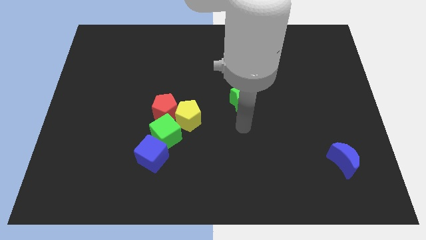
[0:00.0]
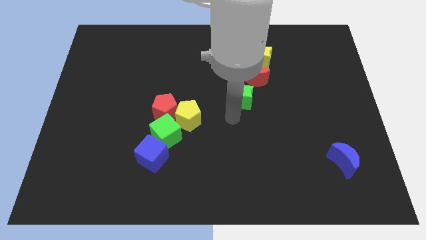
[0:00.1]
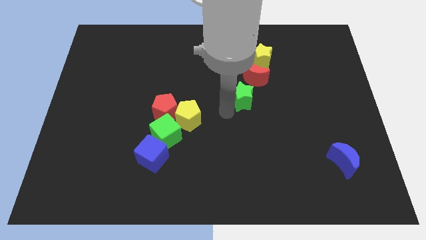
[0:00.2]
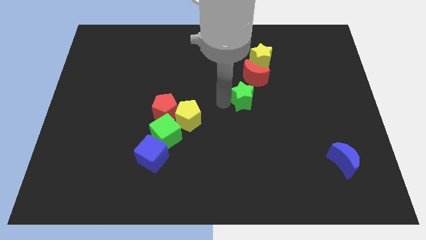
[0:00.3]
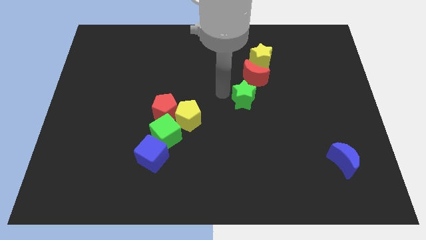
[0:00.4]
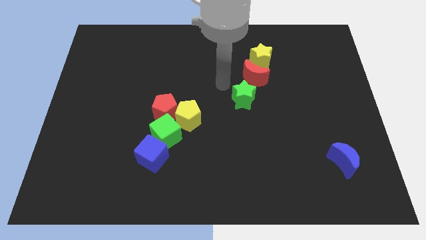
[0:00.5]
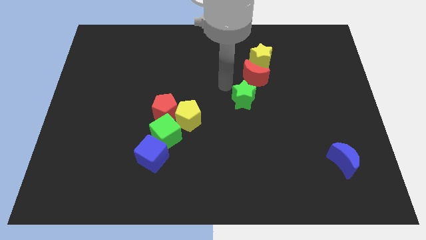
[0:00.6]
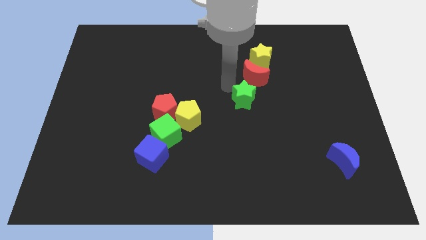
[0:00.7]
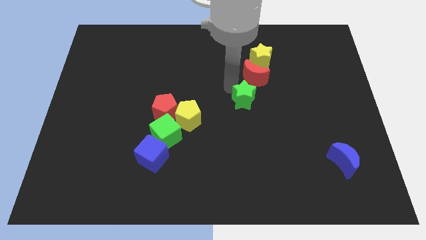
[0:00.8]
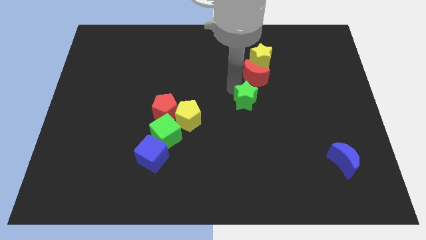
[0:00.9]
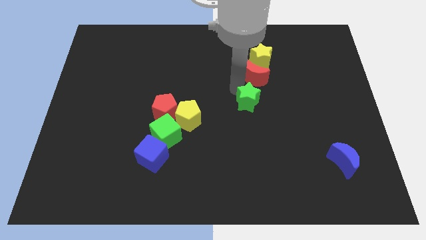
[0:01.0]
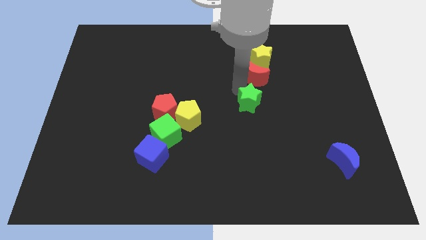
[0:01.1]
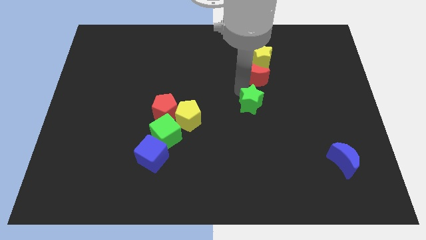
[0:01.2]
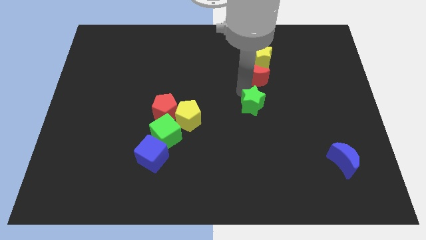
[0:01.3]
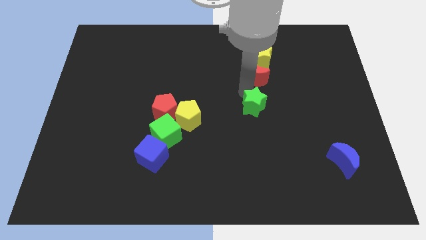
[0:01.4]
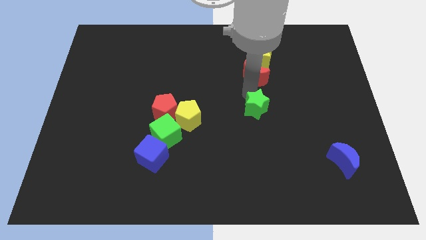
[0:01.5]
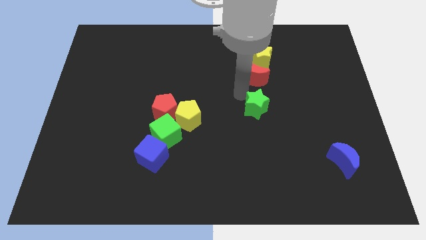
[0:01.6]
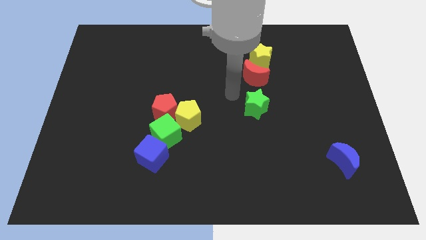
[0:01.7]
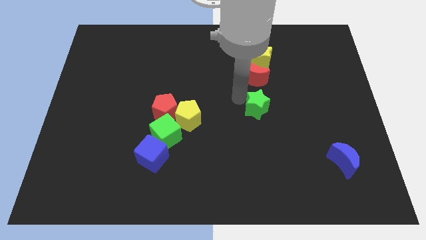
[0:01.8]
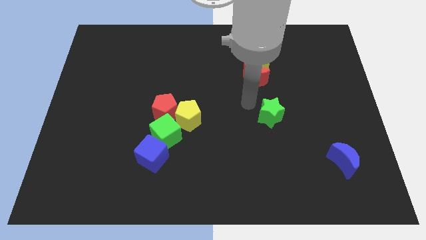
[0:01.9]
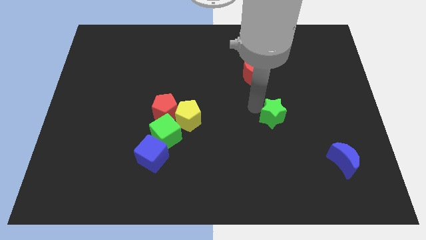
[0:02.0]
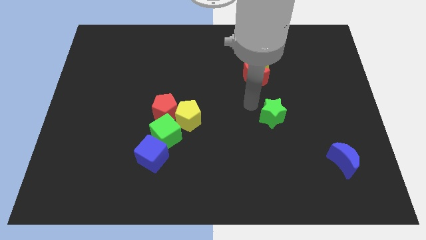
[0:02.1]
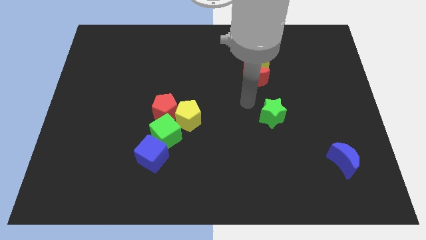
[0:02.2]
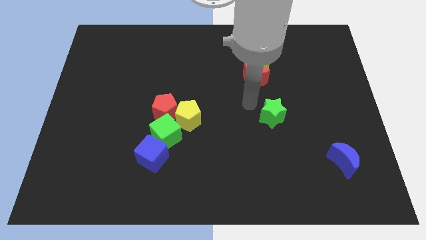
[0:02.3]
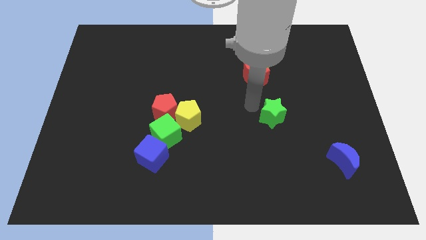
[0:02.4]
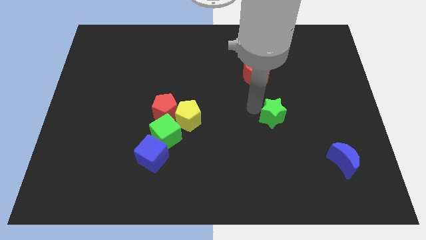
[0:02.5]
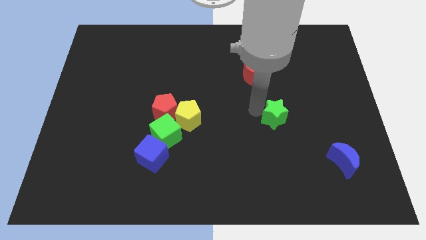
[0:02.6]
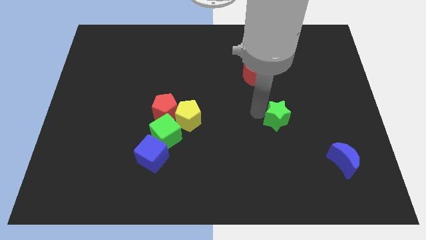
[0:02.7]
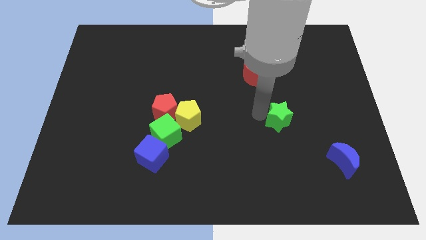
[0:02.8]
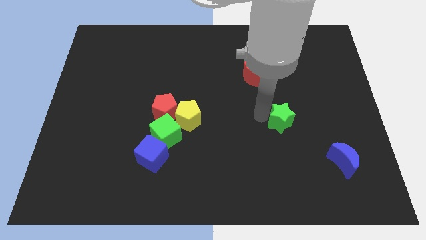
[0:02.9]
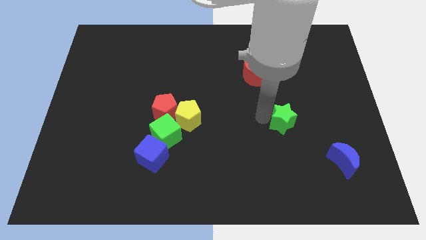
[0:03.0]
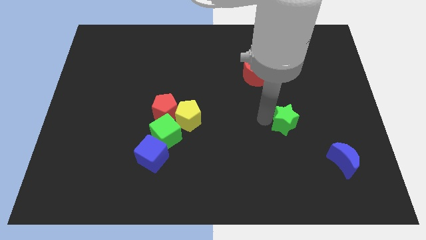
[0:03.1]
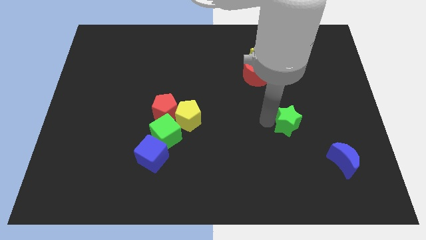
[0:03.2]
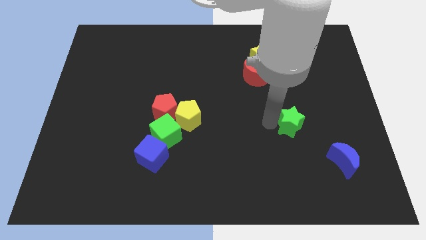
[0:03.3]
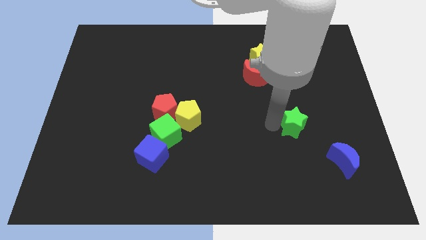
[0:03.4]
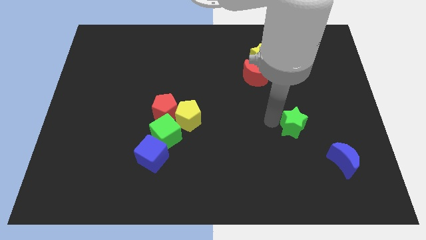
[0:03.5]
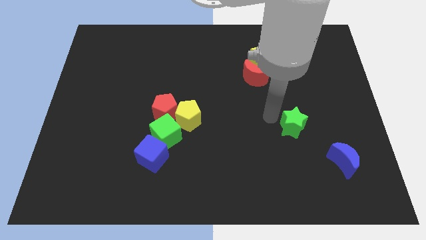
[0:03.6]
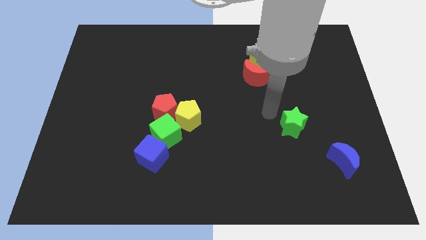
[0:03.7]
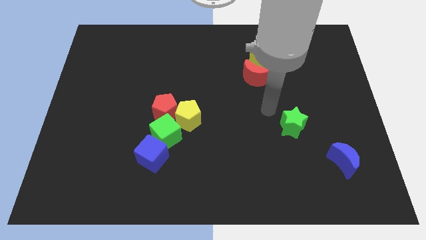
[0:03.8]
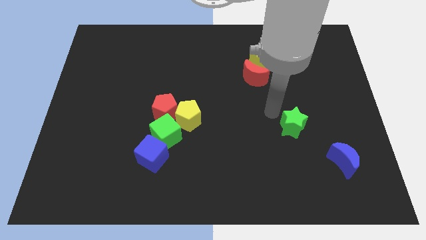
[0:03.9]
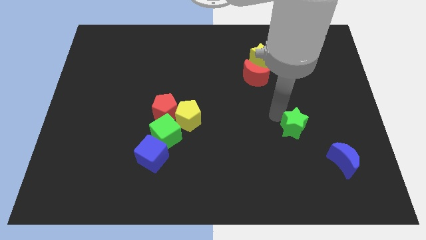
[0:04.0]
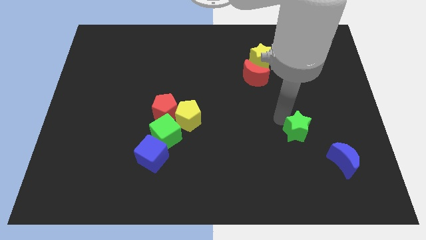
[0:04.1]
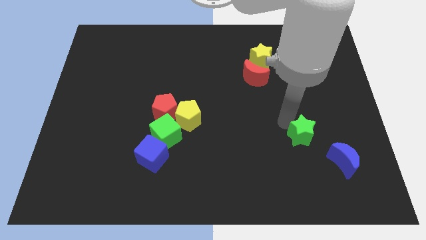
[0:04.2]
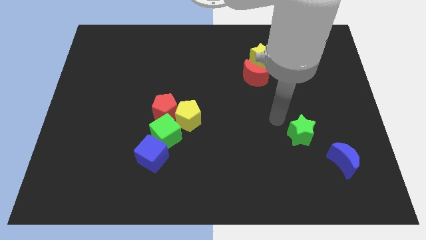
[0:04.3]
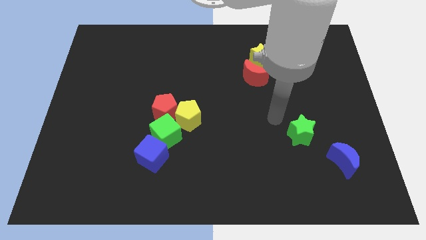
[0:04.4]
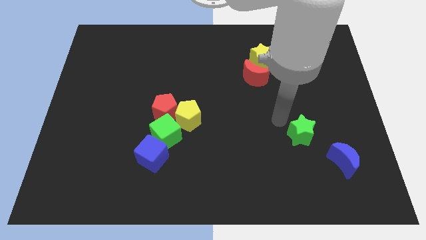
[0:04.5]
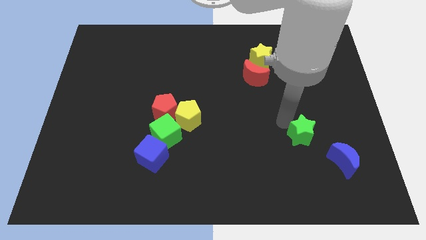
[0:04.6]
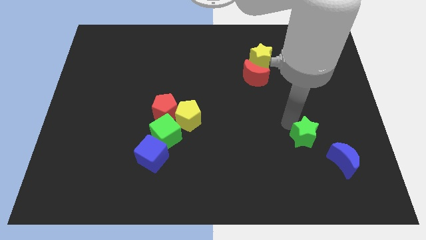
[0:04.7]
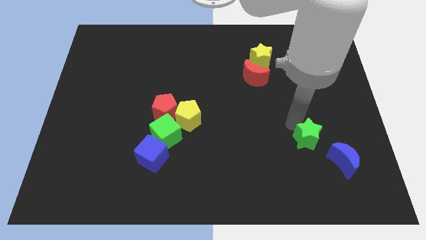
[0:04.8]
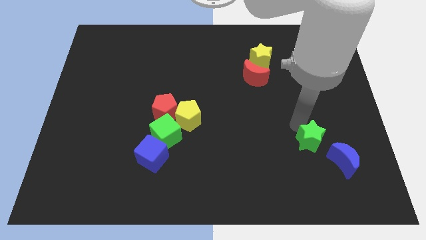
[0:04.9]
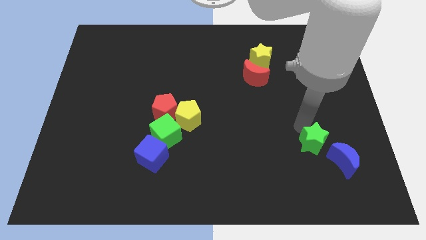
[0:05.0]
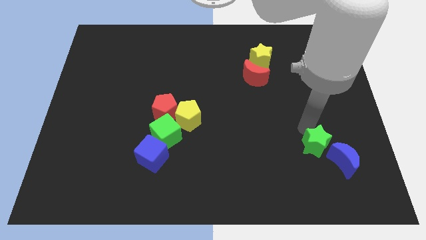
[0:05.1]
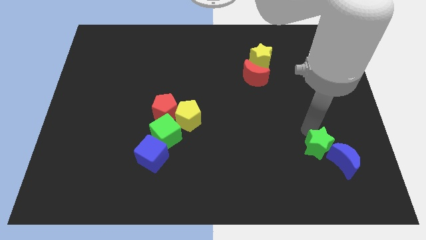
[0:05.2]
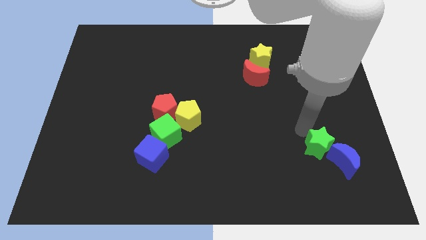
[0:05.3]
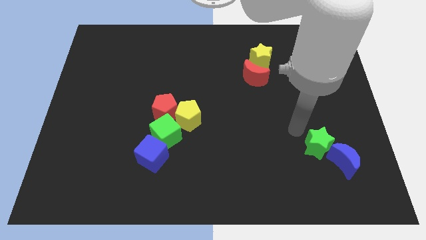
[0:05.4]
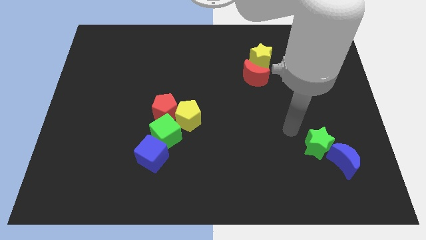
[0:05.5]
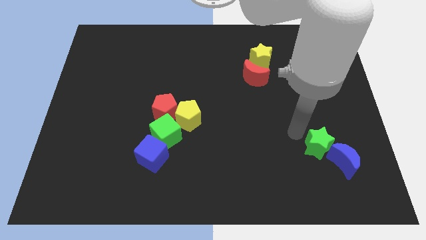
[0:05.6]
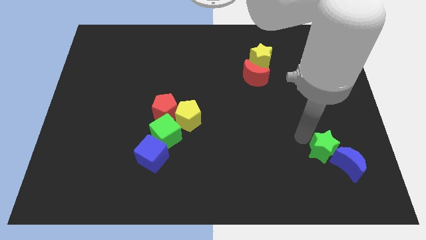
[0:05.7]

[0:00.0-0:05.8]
put the green star close to the blue moon

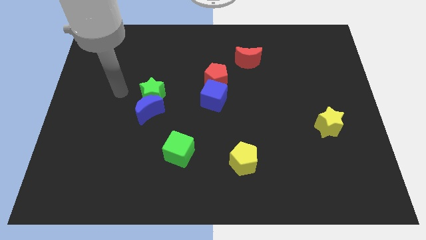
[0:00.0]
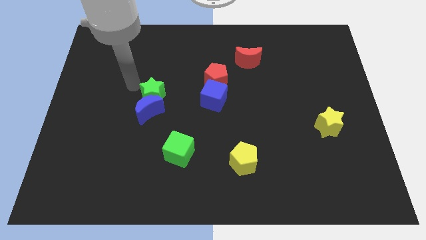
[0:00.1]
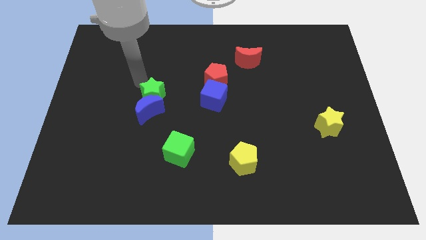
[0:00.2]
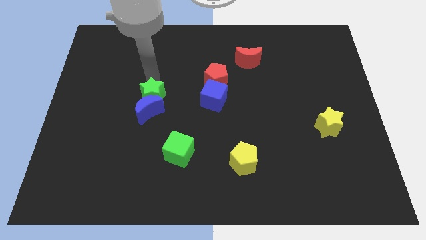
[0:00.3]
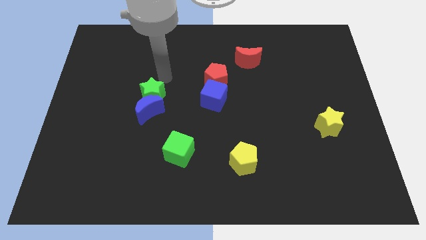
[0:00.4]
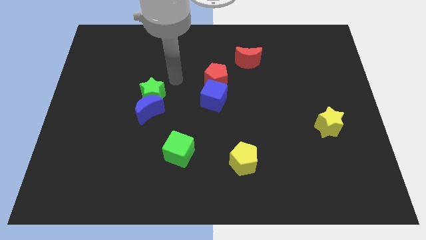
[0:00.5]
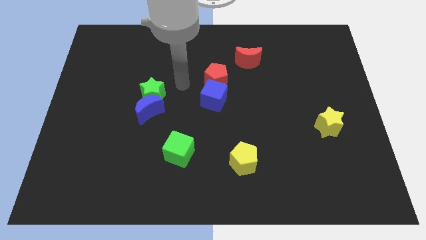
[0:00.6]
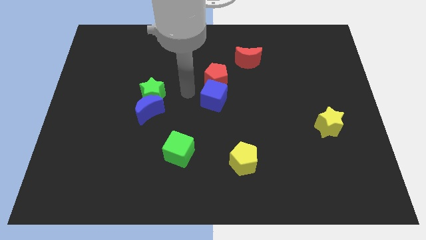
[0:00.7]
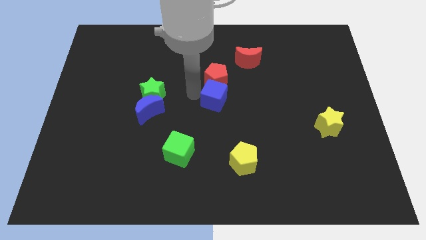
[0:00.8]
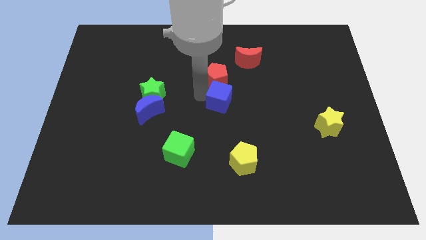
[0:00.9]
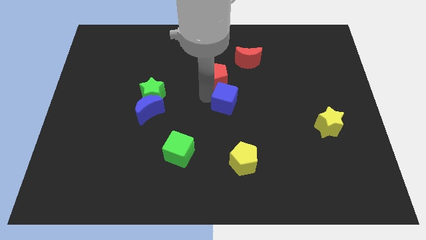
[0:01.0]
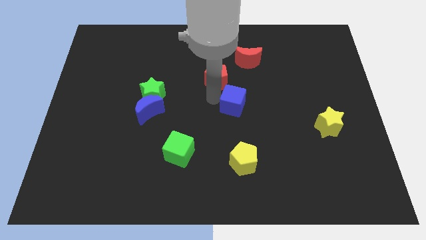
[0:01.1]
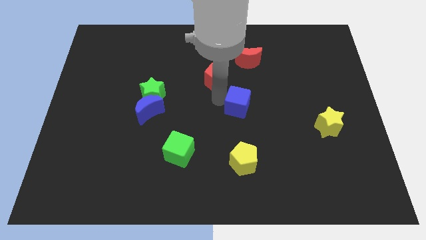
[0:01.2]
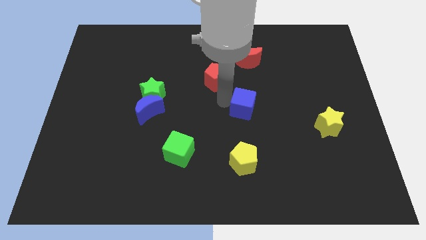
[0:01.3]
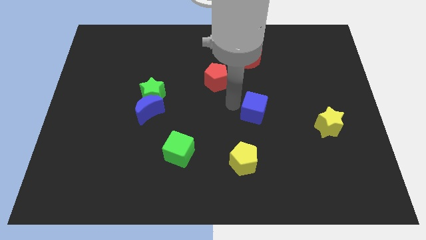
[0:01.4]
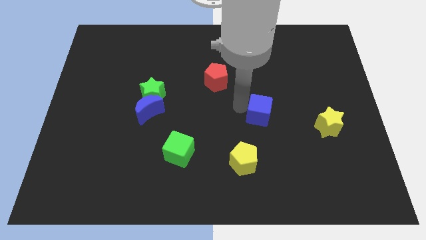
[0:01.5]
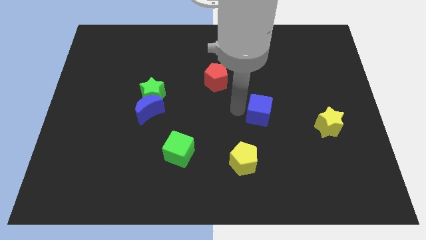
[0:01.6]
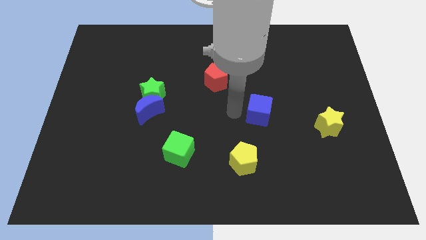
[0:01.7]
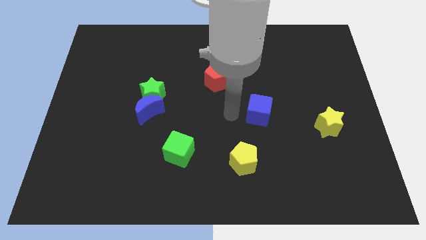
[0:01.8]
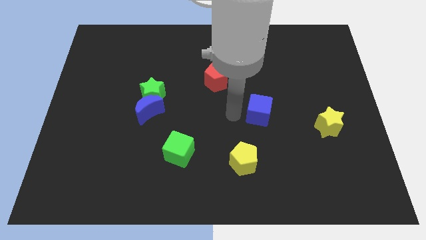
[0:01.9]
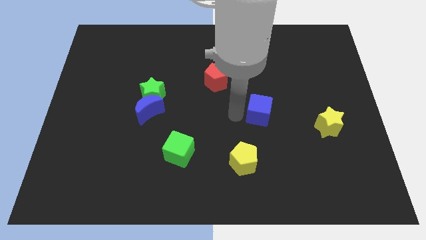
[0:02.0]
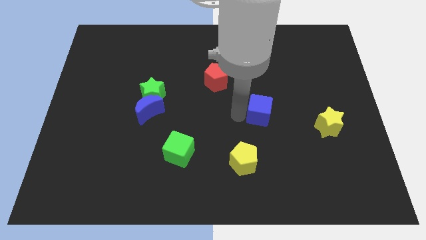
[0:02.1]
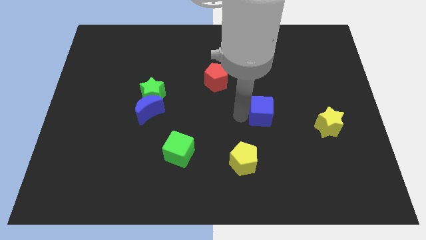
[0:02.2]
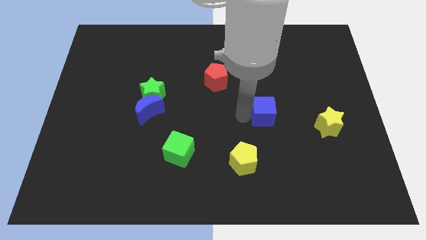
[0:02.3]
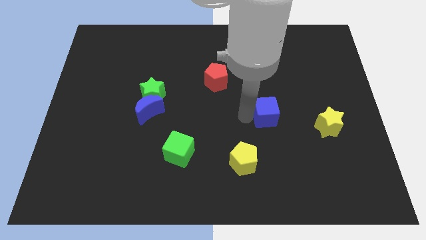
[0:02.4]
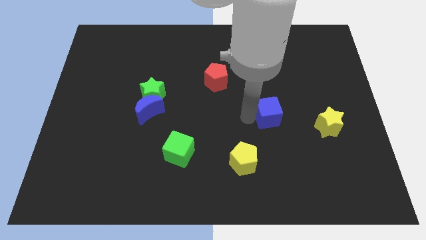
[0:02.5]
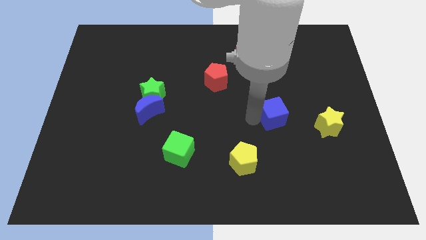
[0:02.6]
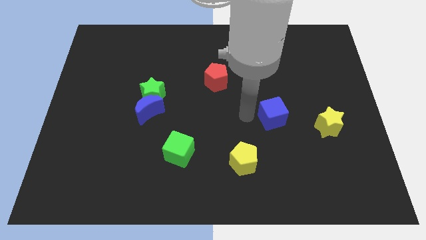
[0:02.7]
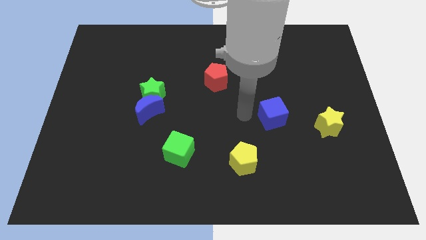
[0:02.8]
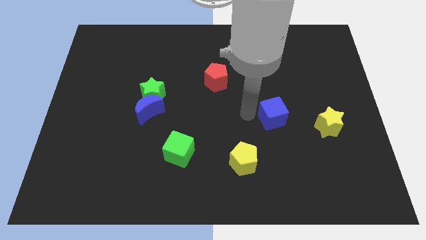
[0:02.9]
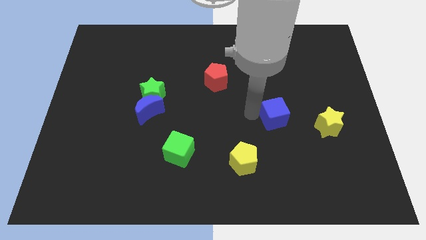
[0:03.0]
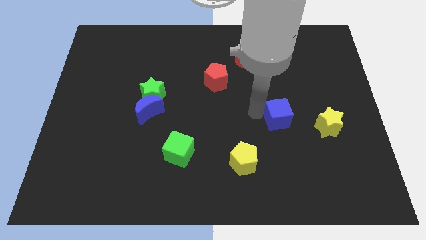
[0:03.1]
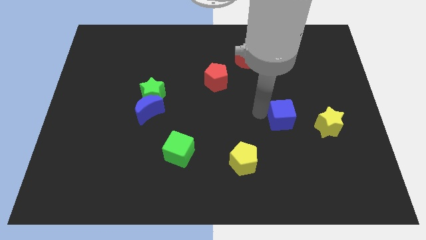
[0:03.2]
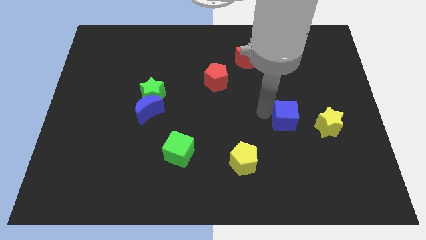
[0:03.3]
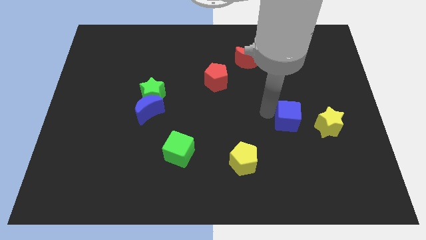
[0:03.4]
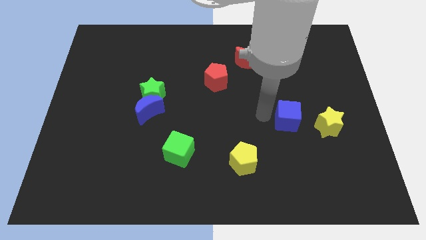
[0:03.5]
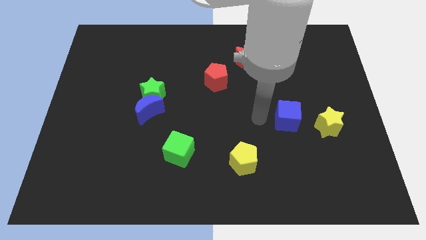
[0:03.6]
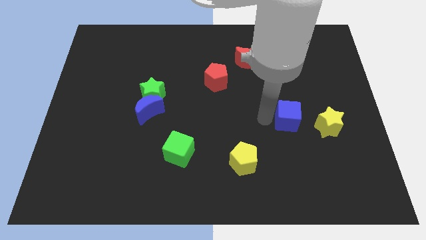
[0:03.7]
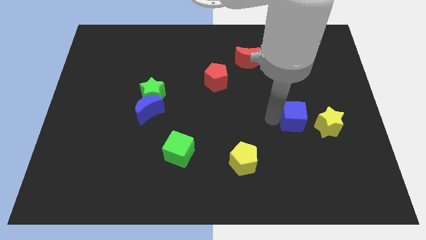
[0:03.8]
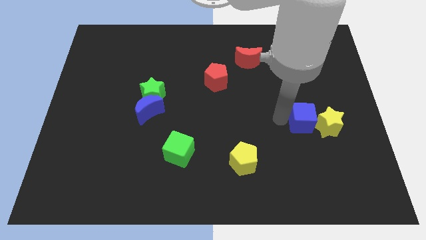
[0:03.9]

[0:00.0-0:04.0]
slide the blue cube next to the yellow star
